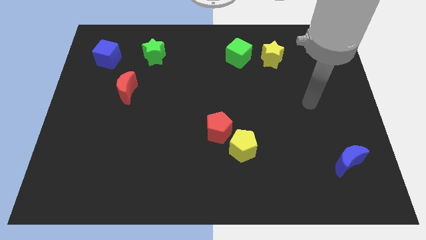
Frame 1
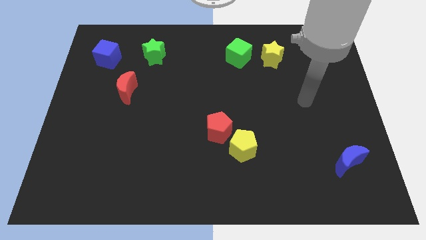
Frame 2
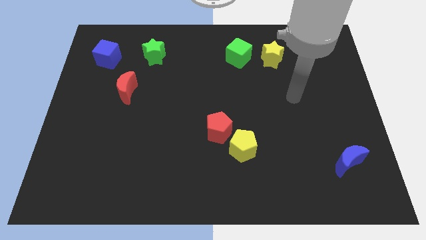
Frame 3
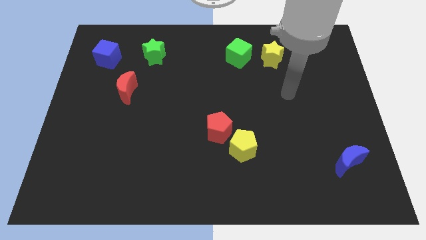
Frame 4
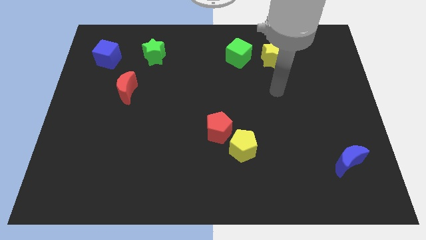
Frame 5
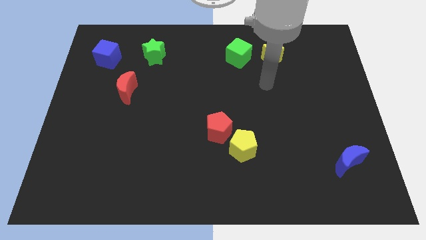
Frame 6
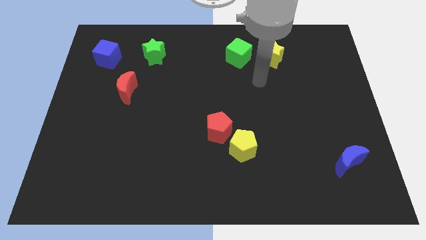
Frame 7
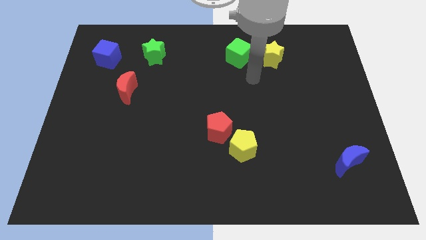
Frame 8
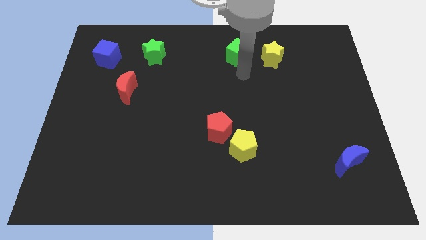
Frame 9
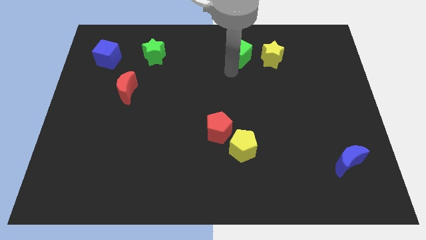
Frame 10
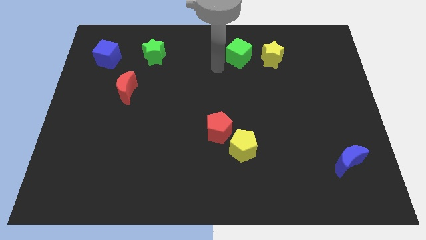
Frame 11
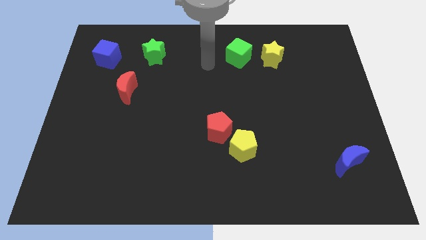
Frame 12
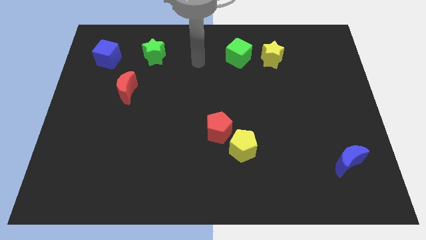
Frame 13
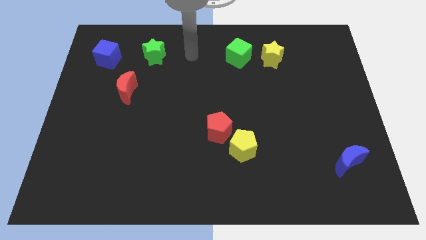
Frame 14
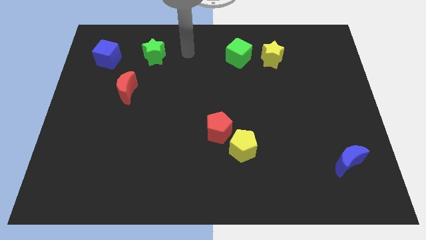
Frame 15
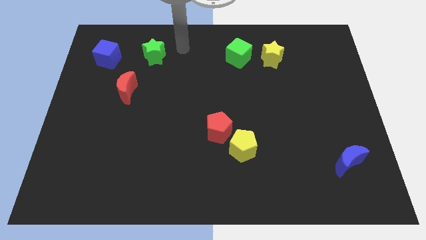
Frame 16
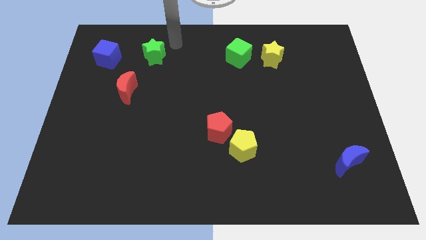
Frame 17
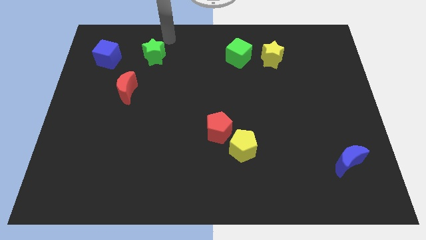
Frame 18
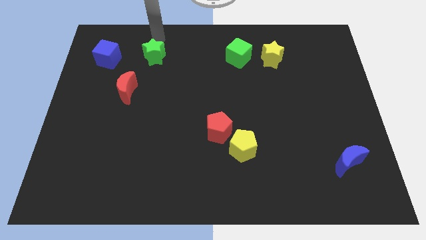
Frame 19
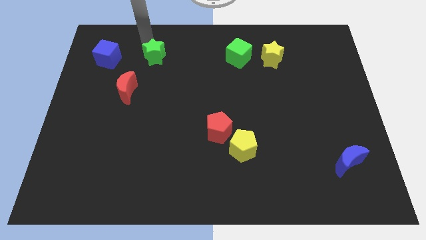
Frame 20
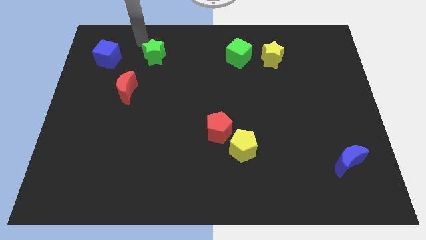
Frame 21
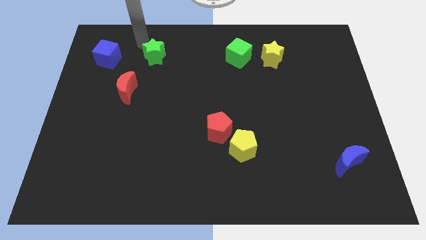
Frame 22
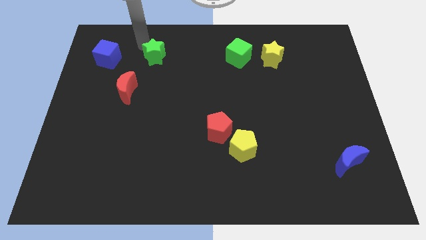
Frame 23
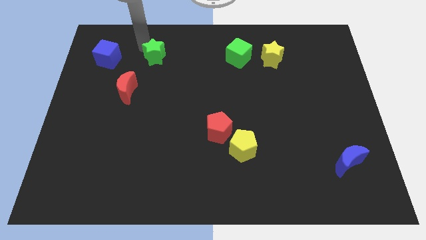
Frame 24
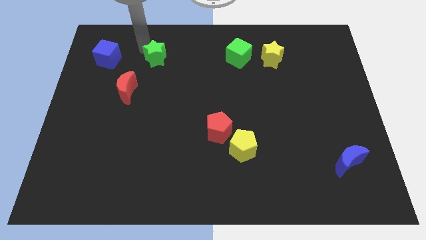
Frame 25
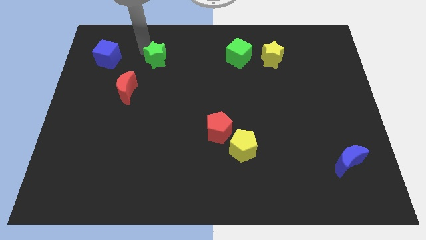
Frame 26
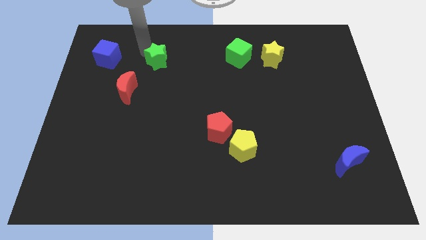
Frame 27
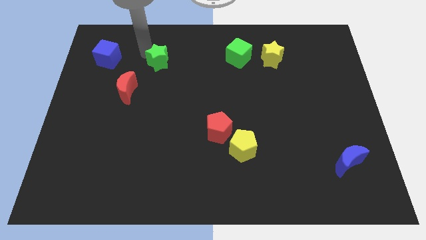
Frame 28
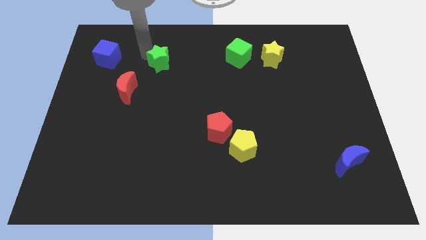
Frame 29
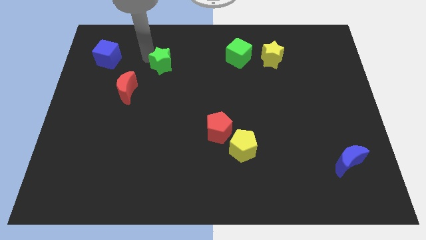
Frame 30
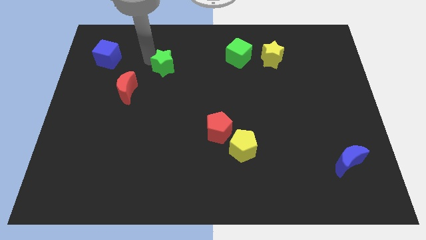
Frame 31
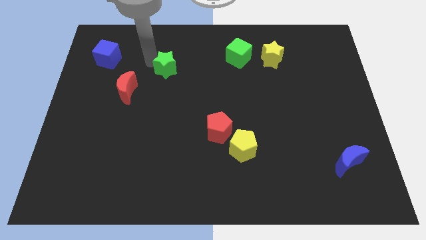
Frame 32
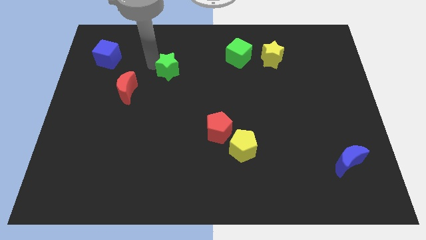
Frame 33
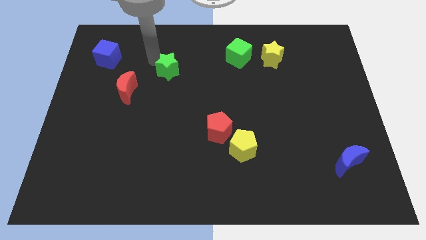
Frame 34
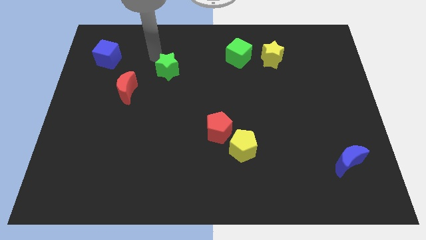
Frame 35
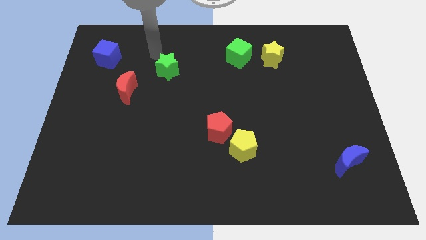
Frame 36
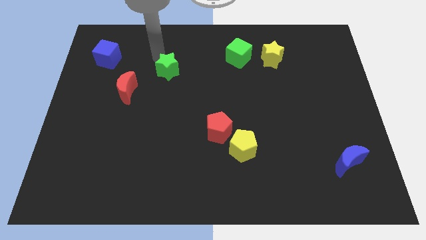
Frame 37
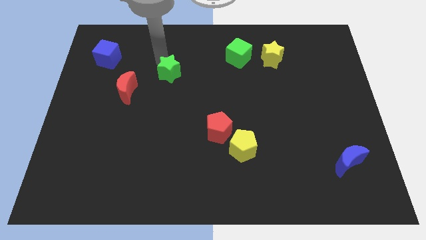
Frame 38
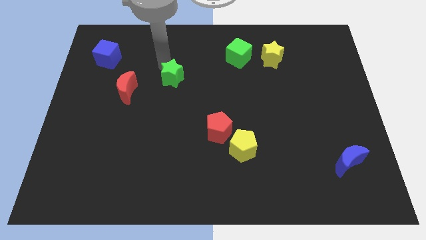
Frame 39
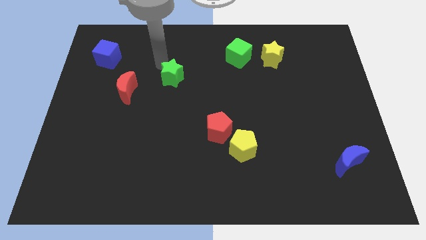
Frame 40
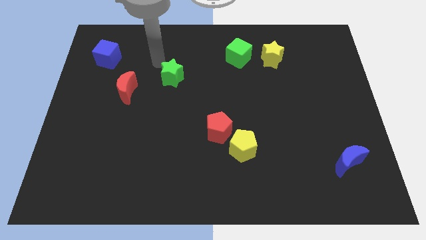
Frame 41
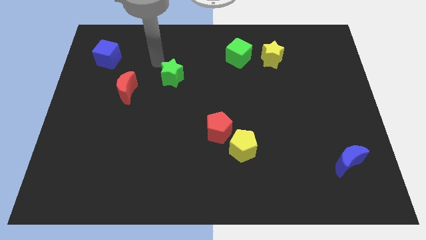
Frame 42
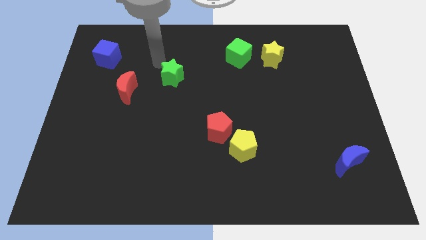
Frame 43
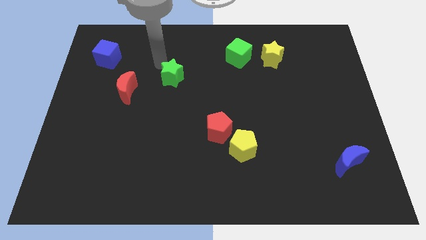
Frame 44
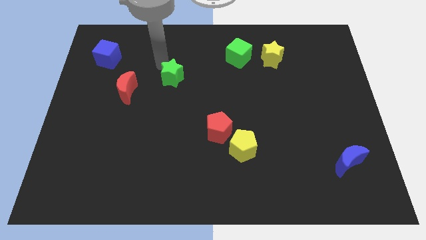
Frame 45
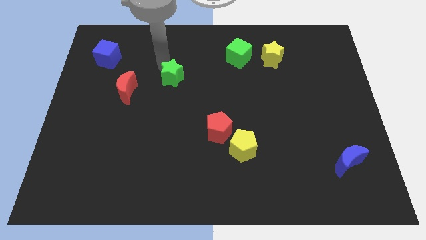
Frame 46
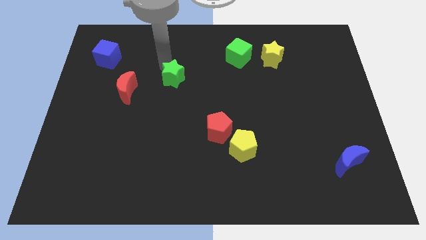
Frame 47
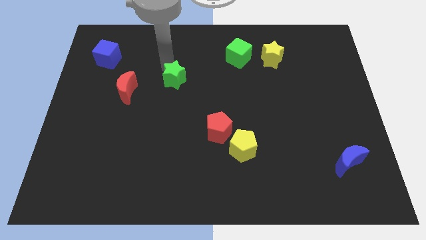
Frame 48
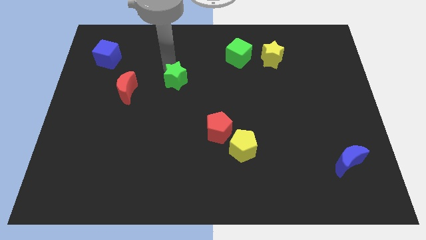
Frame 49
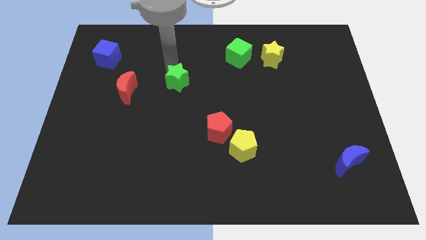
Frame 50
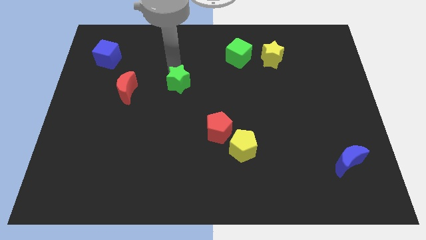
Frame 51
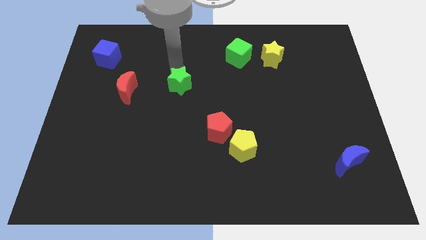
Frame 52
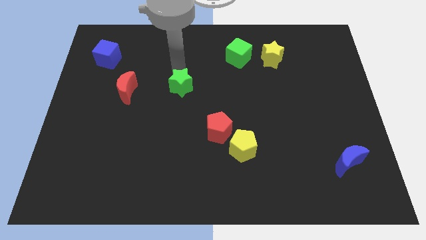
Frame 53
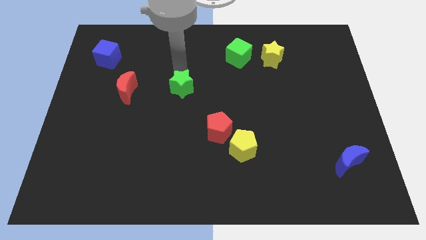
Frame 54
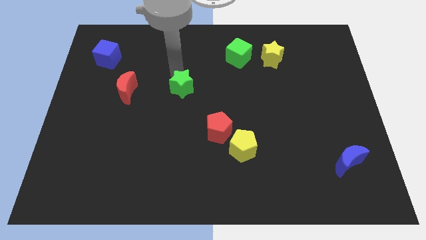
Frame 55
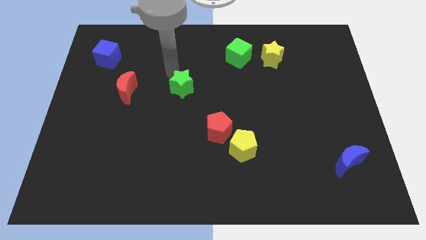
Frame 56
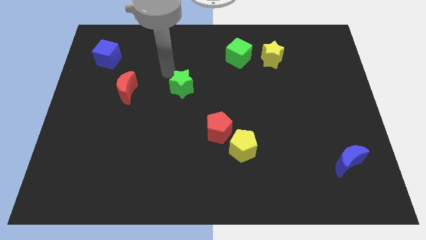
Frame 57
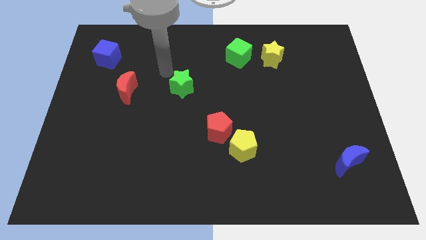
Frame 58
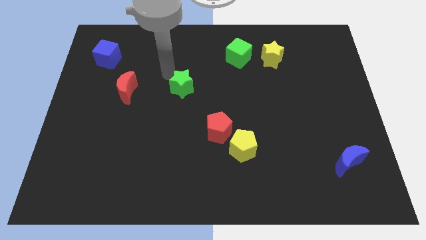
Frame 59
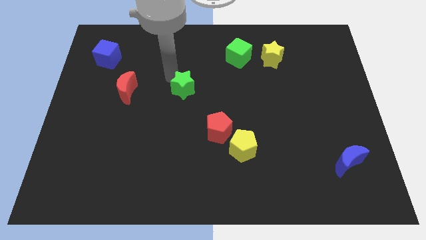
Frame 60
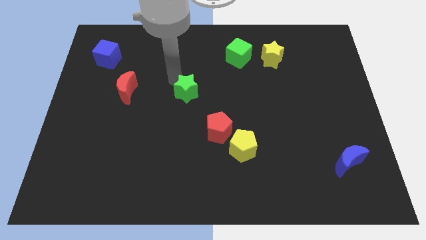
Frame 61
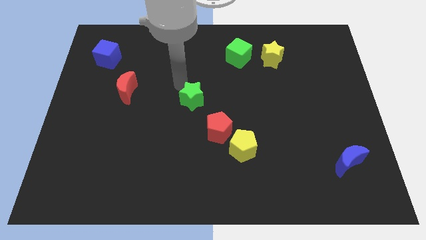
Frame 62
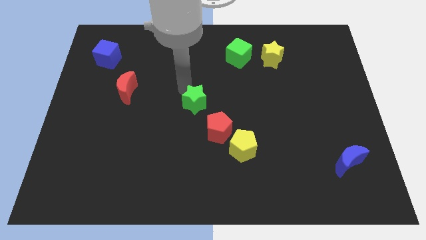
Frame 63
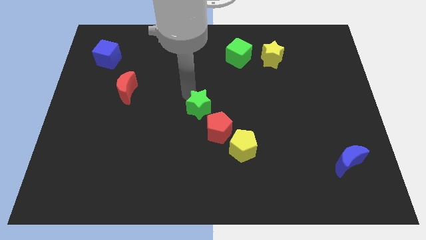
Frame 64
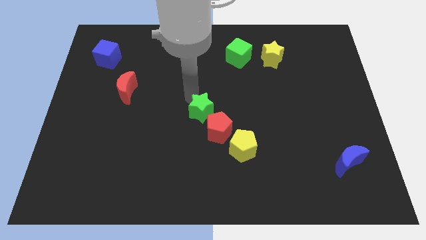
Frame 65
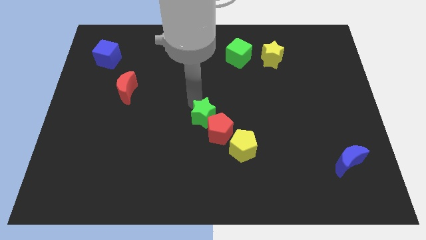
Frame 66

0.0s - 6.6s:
push the green star diagonally up and to the left of the yellow pentagon
